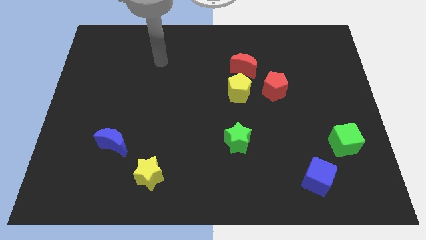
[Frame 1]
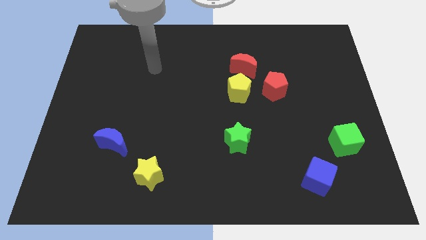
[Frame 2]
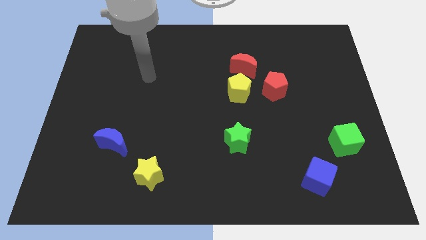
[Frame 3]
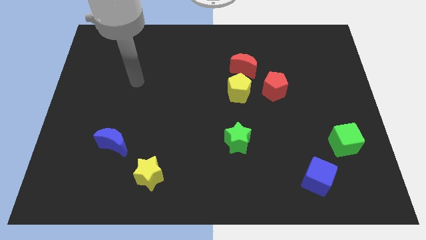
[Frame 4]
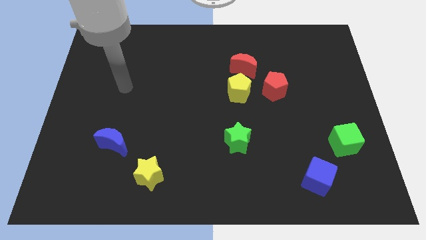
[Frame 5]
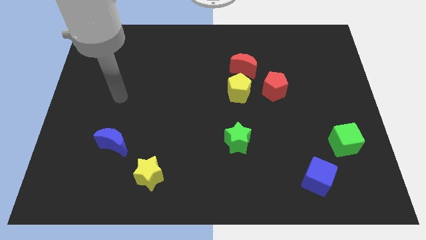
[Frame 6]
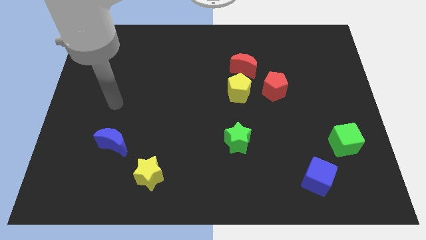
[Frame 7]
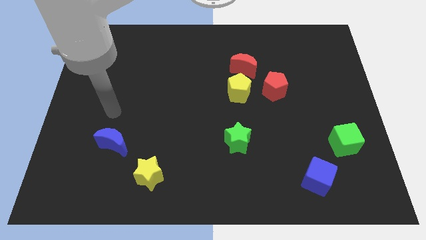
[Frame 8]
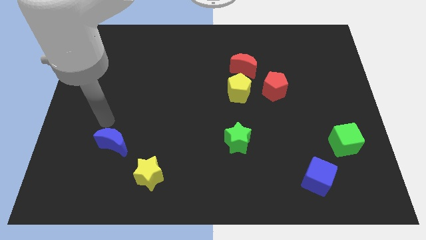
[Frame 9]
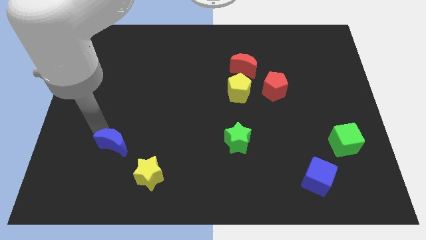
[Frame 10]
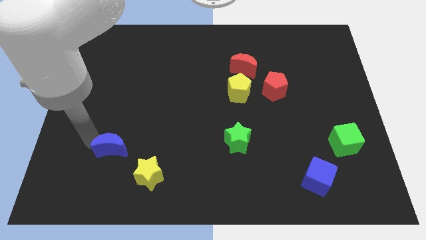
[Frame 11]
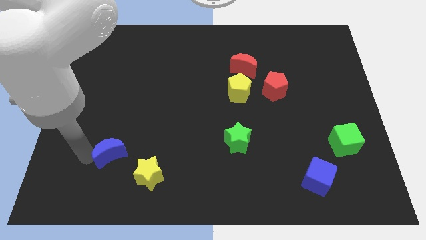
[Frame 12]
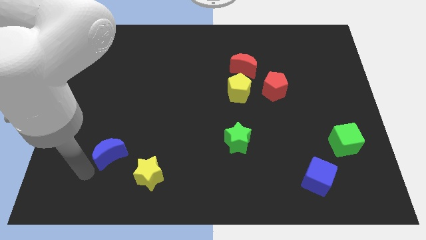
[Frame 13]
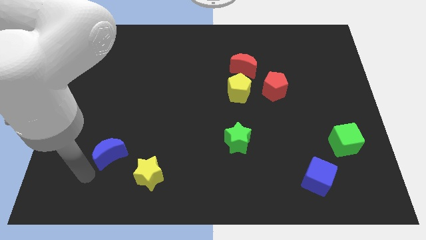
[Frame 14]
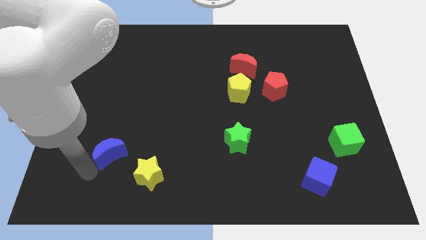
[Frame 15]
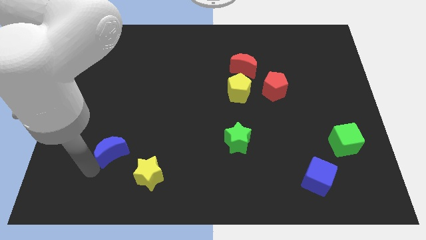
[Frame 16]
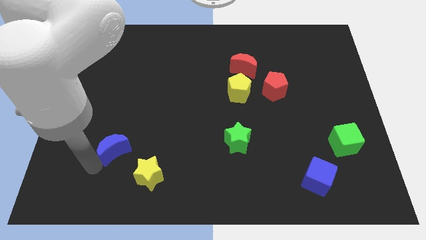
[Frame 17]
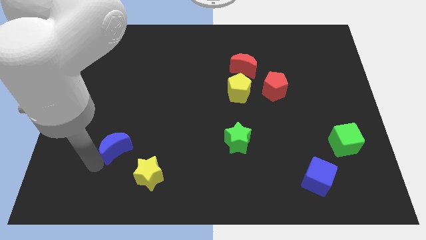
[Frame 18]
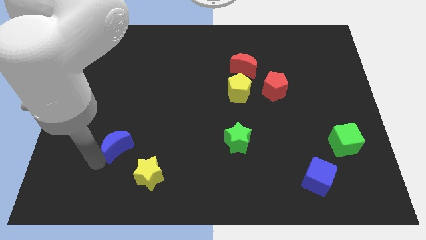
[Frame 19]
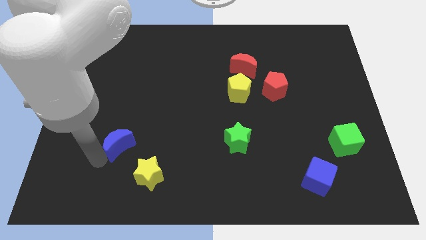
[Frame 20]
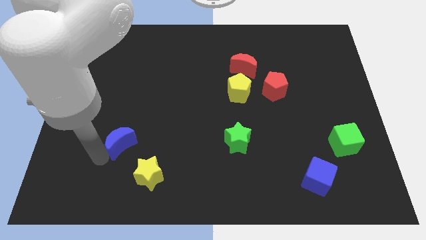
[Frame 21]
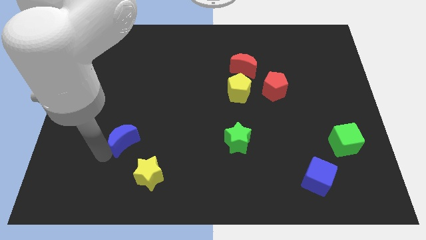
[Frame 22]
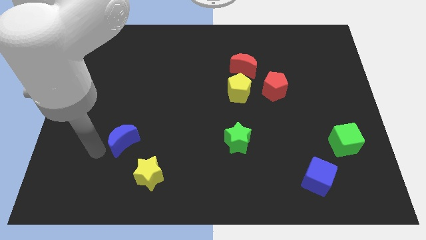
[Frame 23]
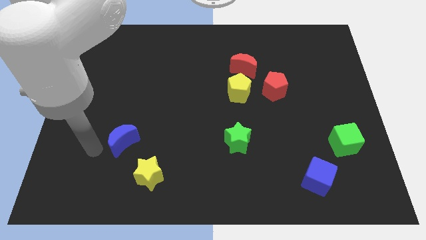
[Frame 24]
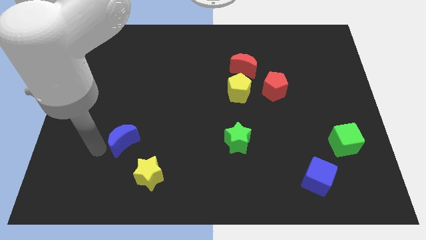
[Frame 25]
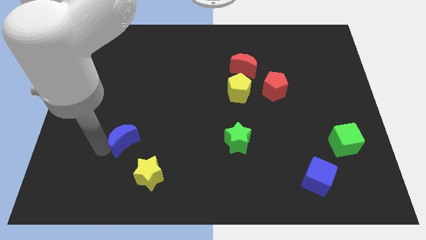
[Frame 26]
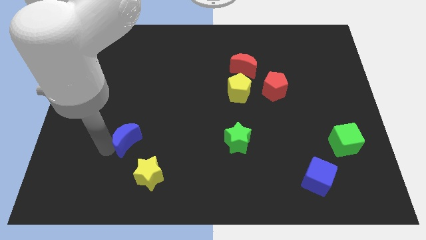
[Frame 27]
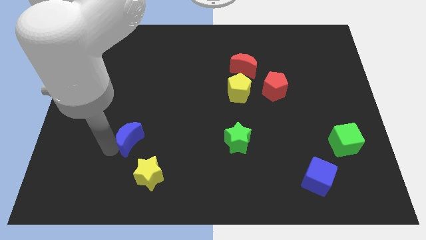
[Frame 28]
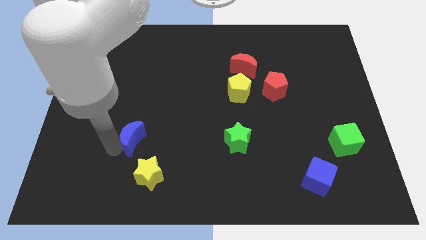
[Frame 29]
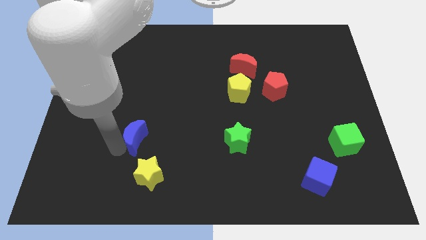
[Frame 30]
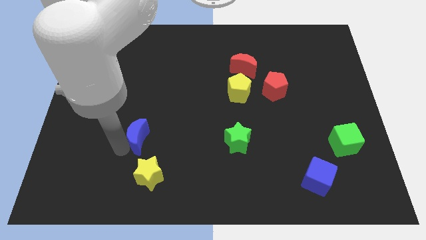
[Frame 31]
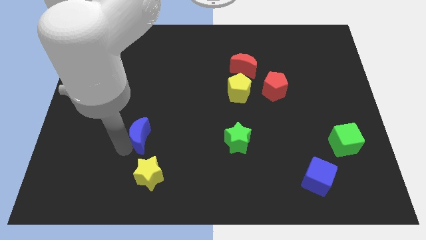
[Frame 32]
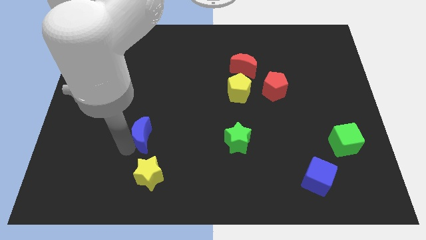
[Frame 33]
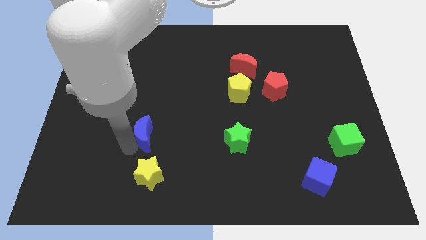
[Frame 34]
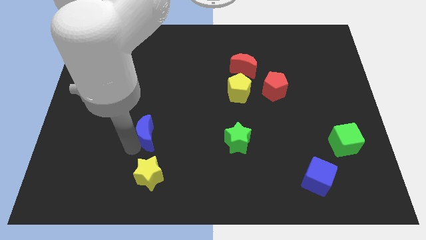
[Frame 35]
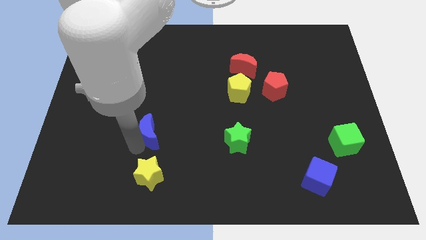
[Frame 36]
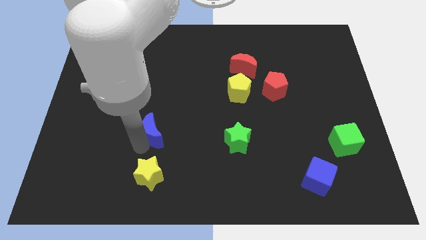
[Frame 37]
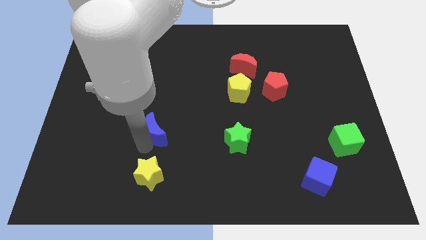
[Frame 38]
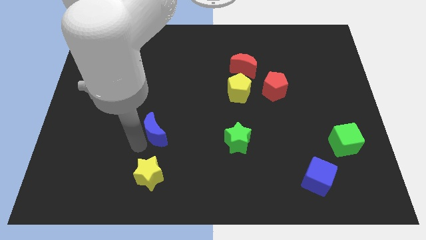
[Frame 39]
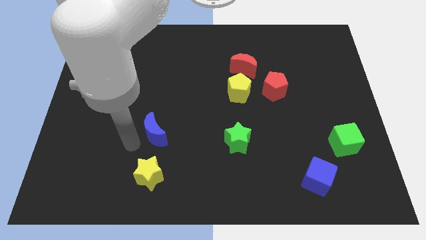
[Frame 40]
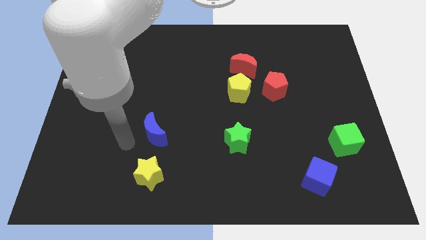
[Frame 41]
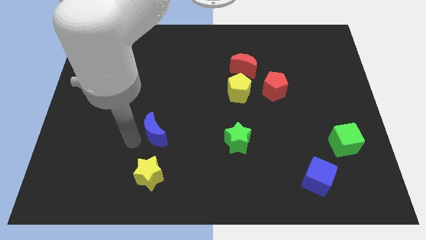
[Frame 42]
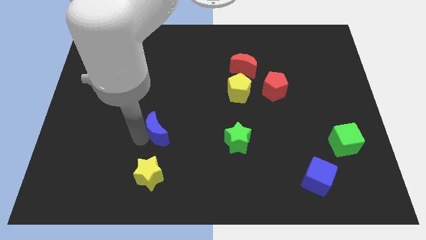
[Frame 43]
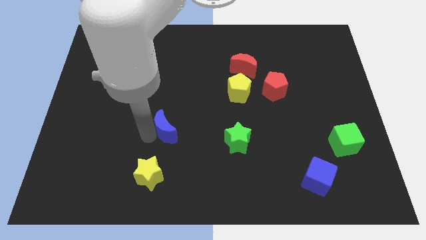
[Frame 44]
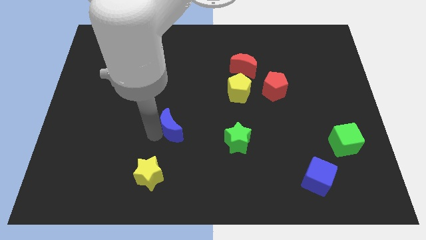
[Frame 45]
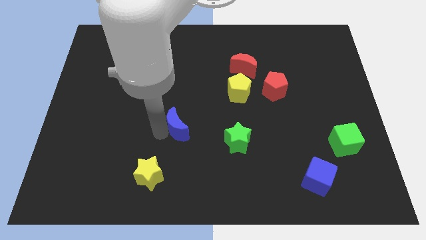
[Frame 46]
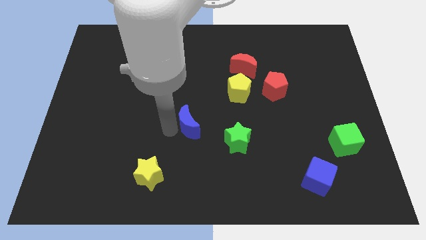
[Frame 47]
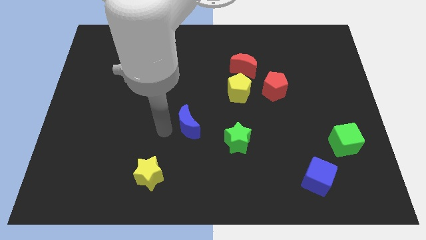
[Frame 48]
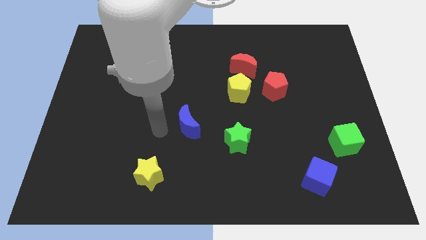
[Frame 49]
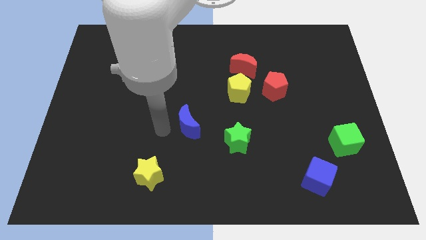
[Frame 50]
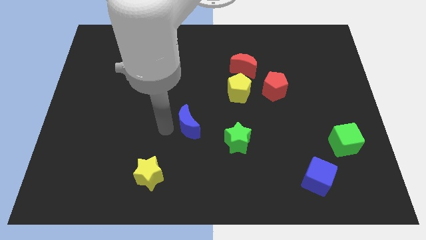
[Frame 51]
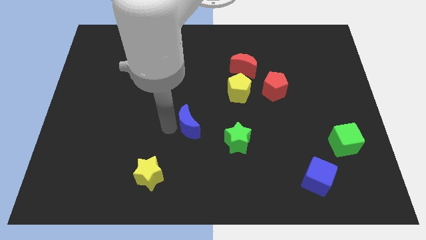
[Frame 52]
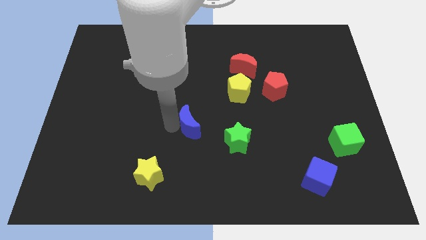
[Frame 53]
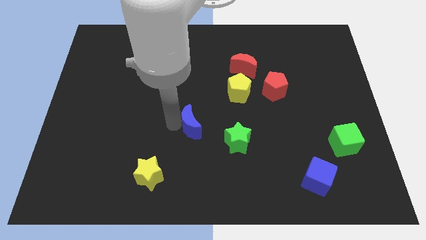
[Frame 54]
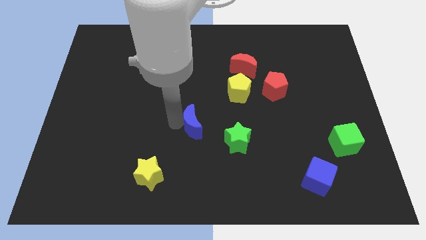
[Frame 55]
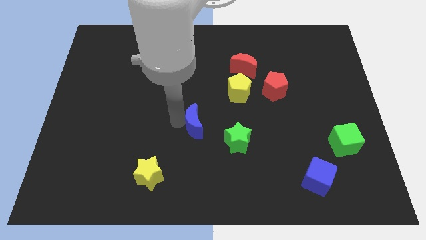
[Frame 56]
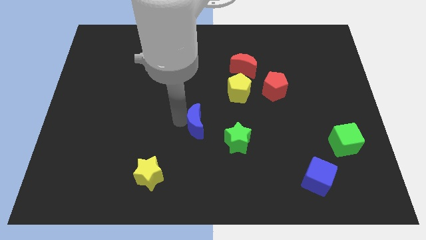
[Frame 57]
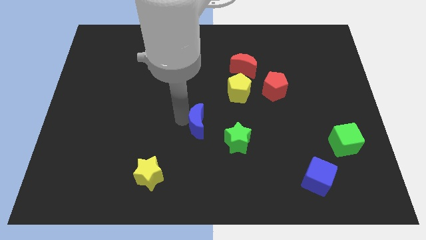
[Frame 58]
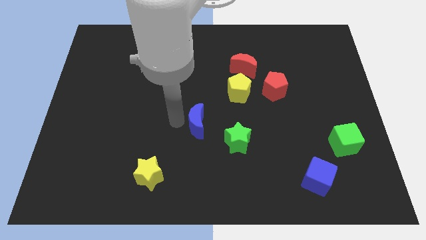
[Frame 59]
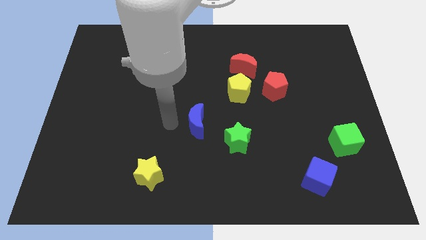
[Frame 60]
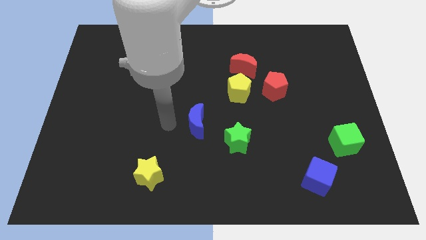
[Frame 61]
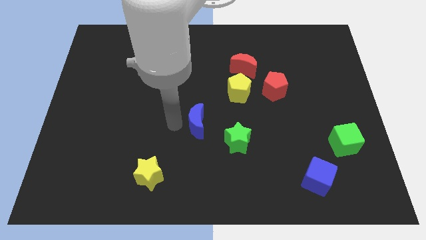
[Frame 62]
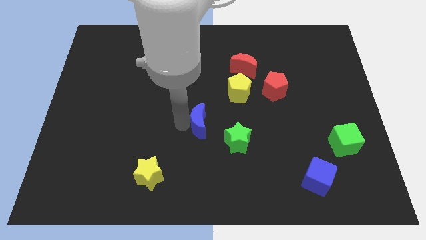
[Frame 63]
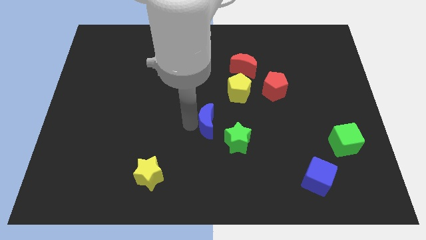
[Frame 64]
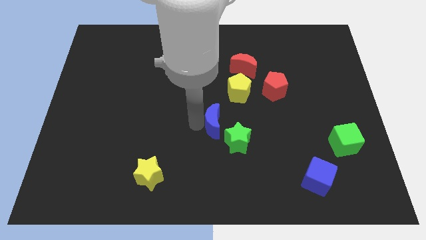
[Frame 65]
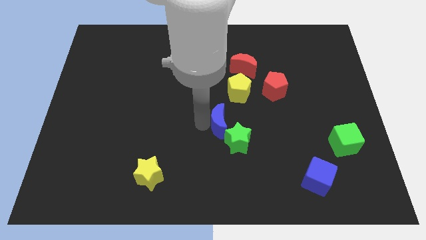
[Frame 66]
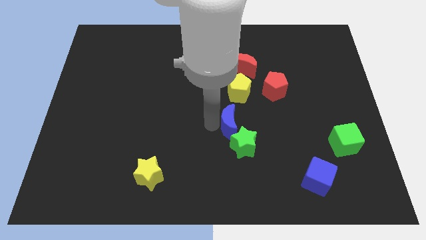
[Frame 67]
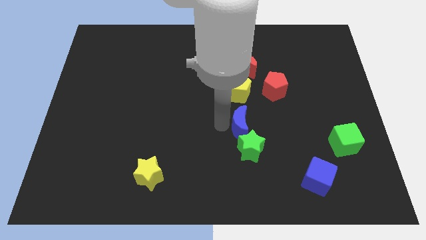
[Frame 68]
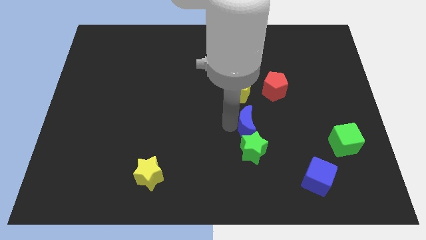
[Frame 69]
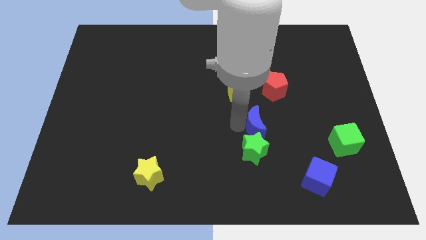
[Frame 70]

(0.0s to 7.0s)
put the blue moon to the top right side of the green star
